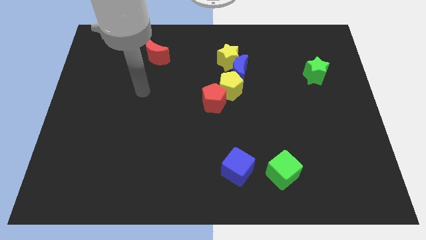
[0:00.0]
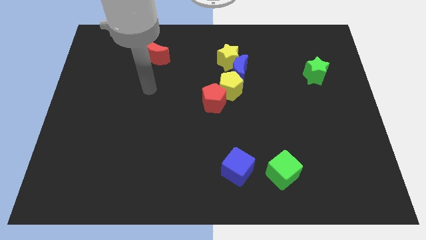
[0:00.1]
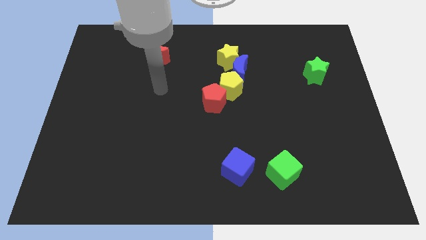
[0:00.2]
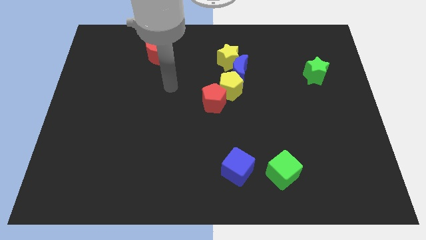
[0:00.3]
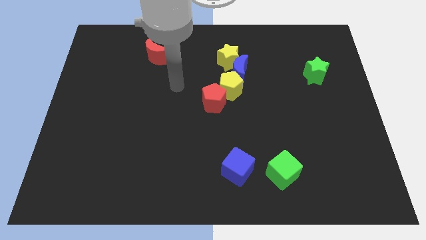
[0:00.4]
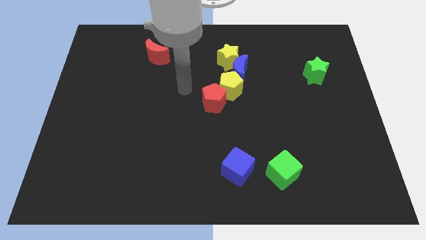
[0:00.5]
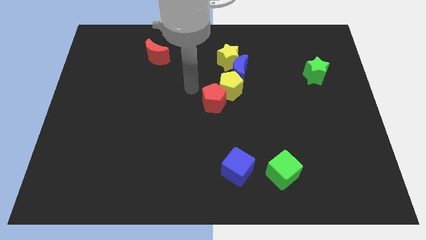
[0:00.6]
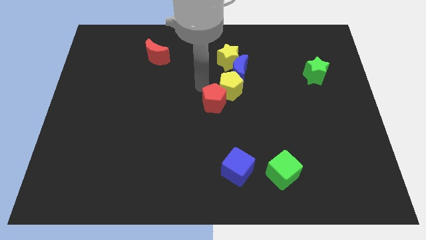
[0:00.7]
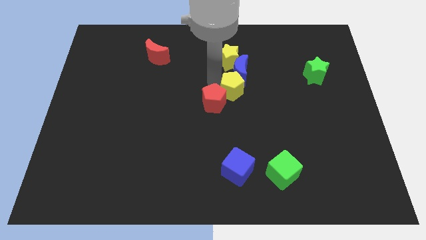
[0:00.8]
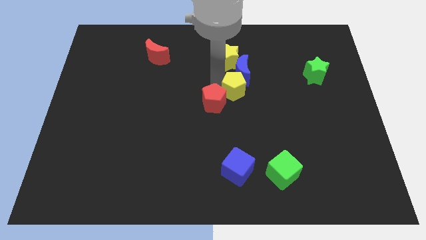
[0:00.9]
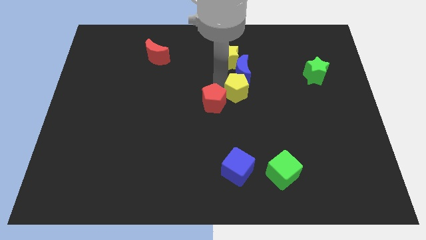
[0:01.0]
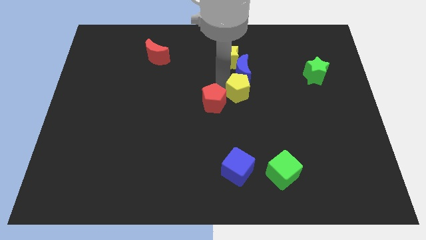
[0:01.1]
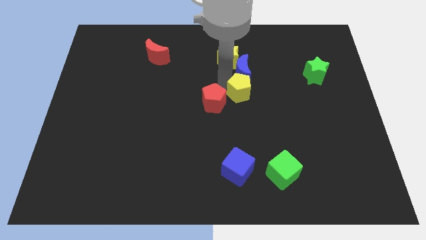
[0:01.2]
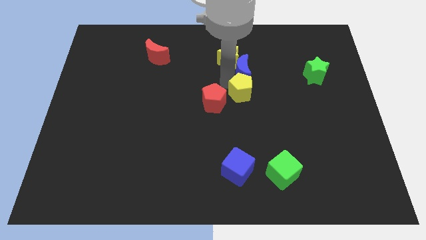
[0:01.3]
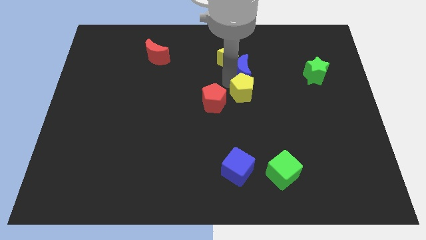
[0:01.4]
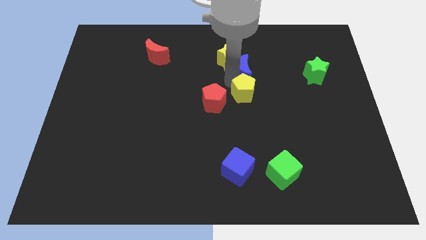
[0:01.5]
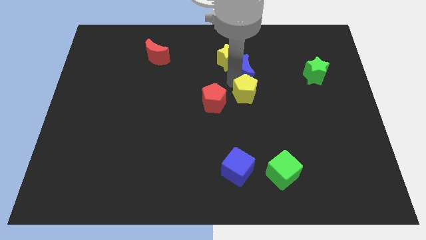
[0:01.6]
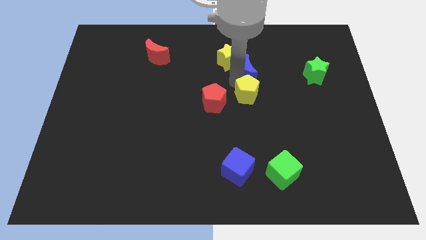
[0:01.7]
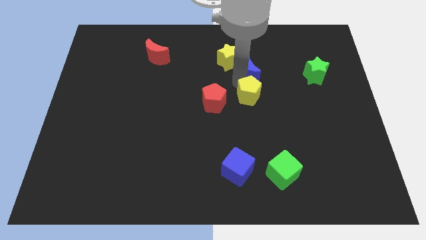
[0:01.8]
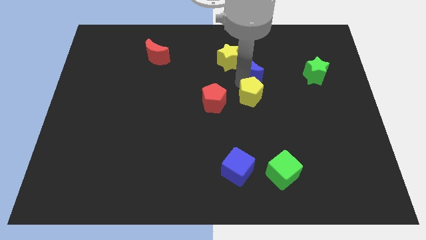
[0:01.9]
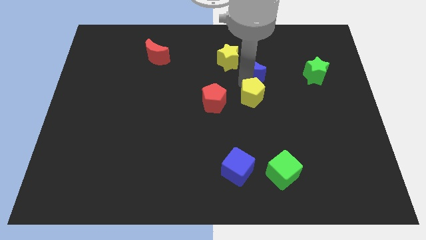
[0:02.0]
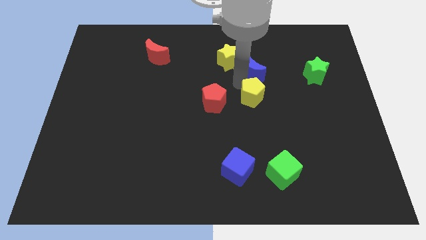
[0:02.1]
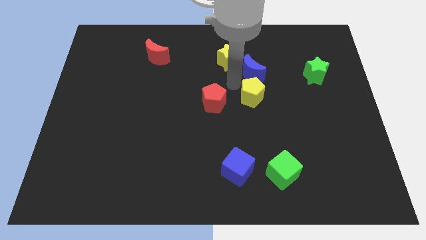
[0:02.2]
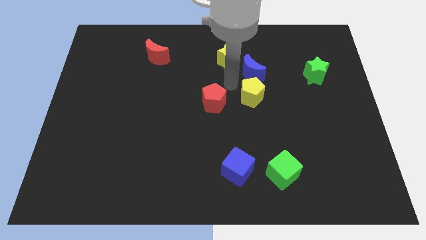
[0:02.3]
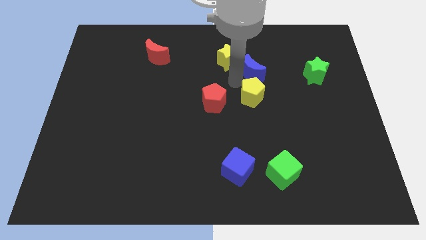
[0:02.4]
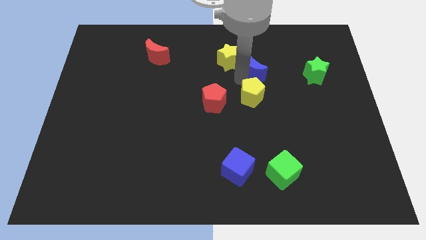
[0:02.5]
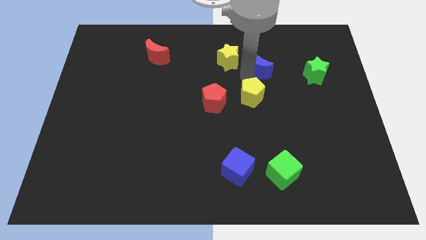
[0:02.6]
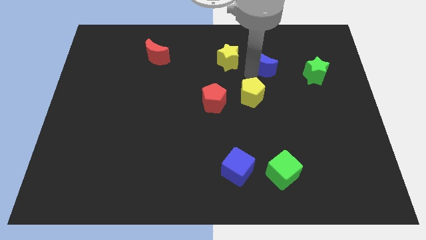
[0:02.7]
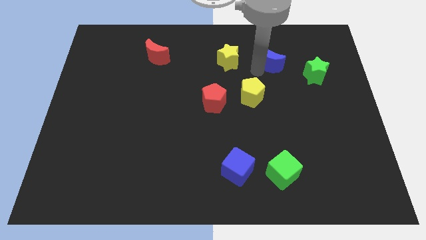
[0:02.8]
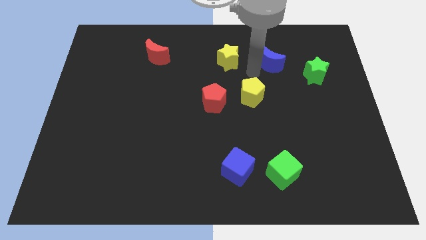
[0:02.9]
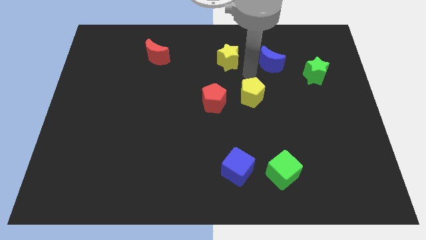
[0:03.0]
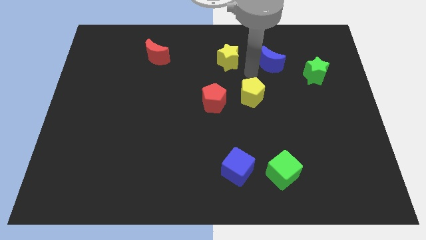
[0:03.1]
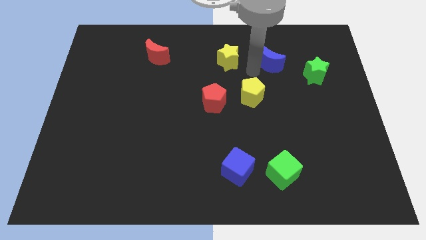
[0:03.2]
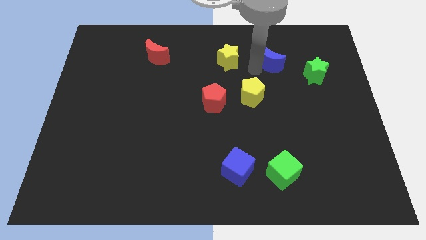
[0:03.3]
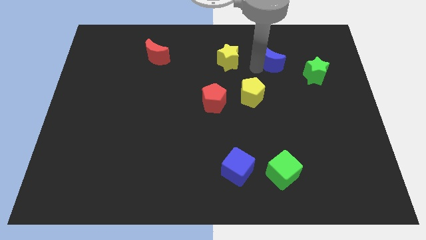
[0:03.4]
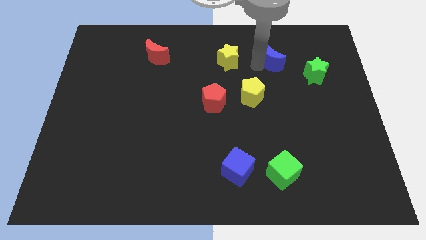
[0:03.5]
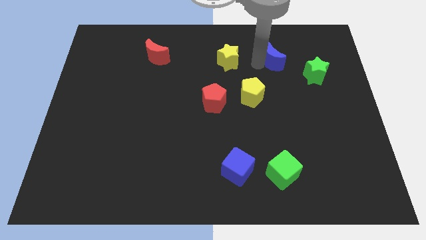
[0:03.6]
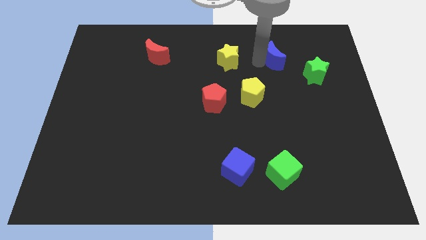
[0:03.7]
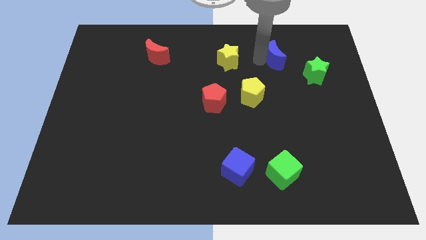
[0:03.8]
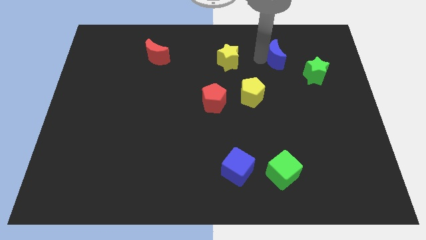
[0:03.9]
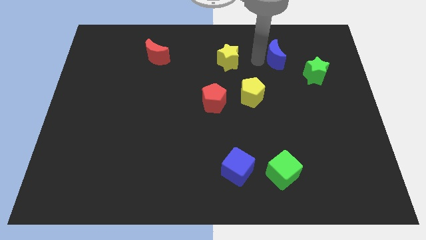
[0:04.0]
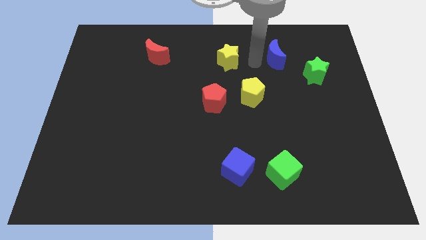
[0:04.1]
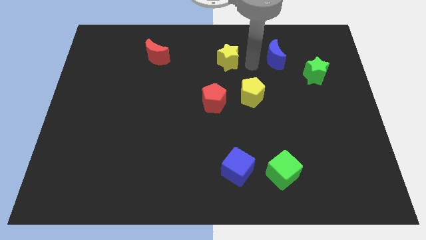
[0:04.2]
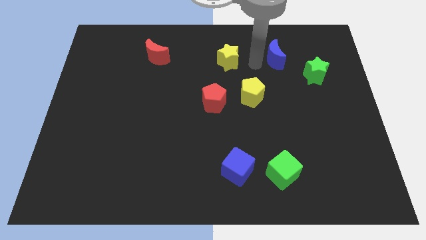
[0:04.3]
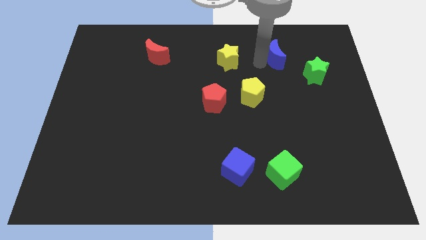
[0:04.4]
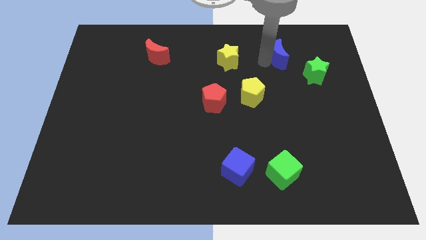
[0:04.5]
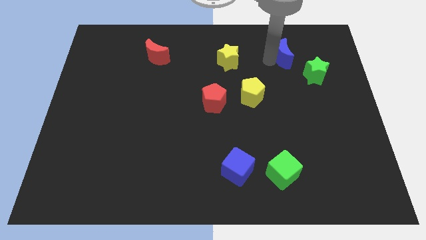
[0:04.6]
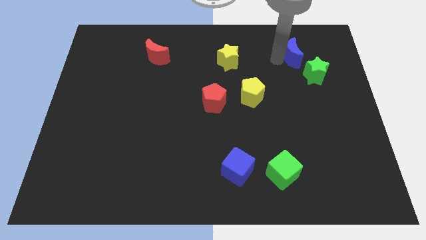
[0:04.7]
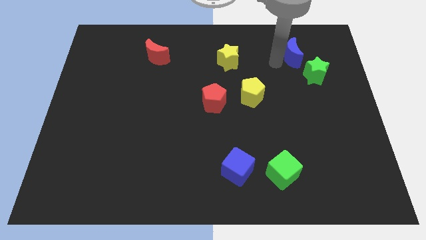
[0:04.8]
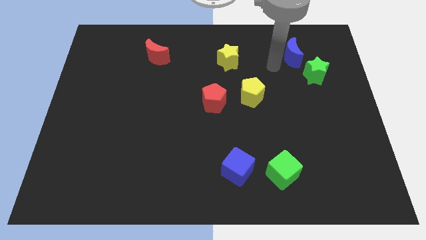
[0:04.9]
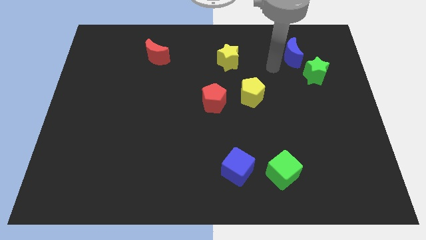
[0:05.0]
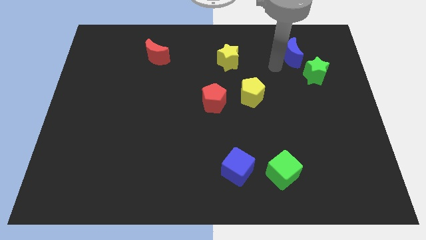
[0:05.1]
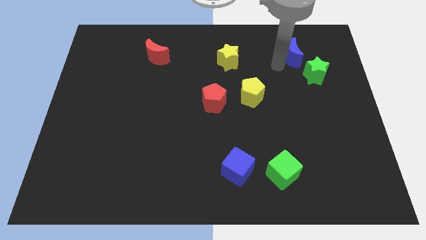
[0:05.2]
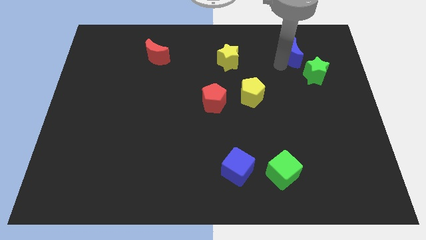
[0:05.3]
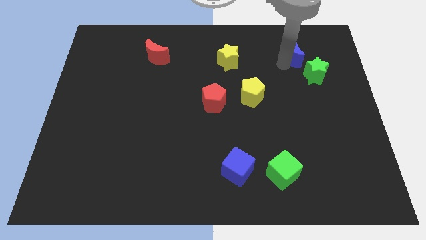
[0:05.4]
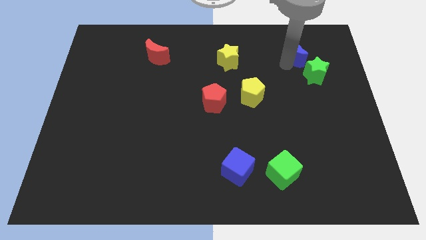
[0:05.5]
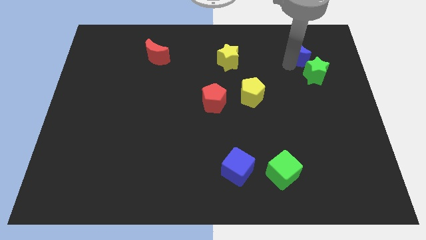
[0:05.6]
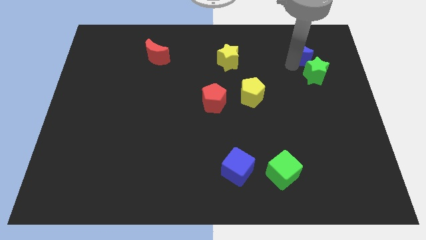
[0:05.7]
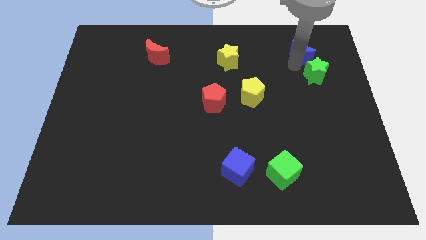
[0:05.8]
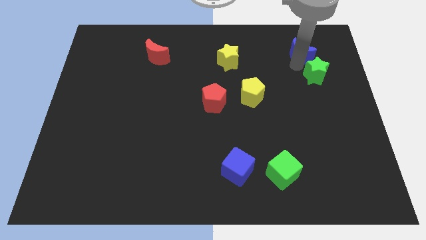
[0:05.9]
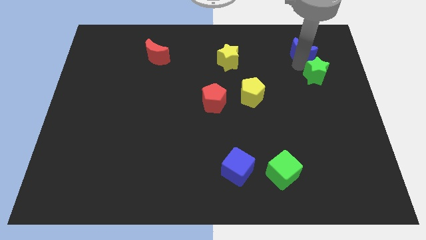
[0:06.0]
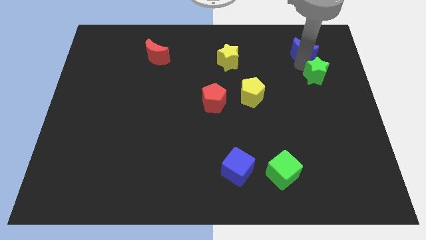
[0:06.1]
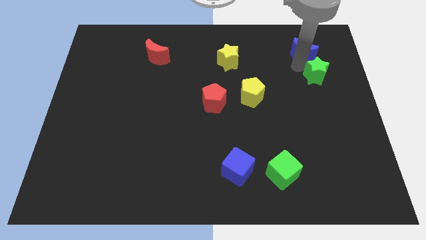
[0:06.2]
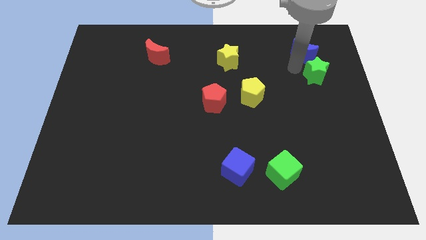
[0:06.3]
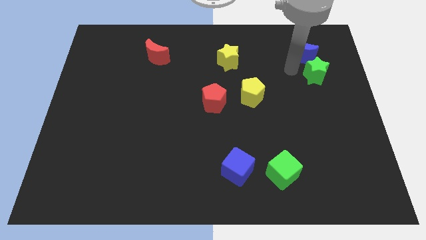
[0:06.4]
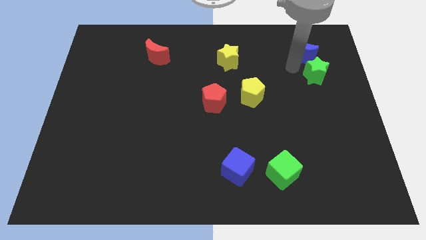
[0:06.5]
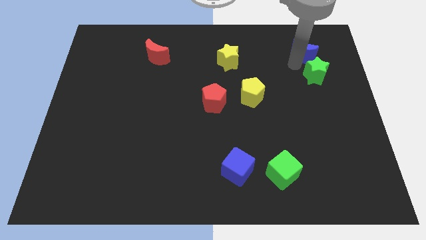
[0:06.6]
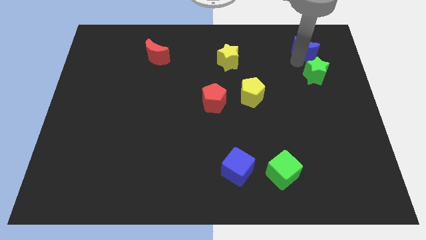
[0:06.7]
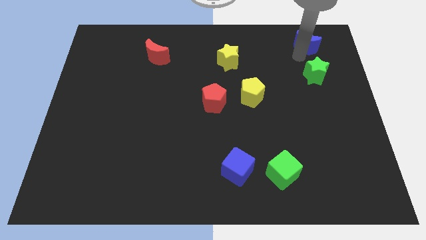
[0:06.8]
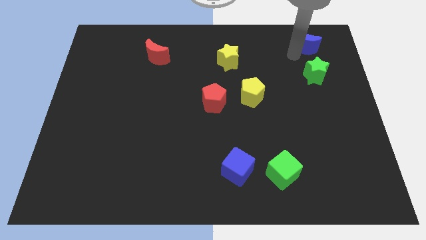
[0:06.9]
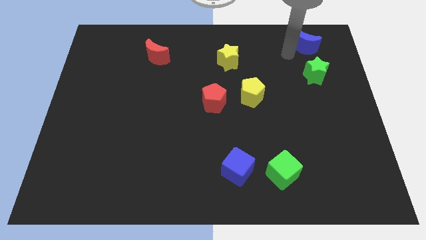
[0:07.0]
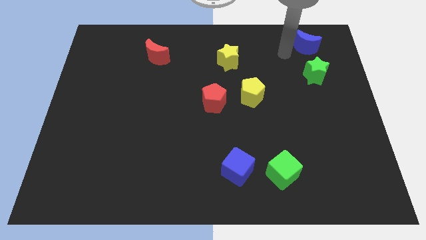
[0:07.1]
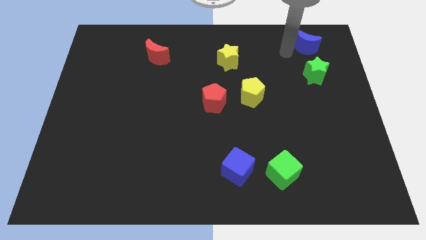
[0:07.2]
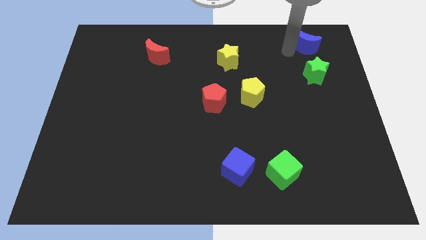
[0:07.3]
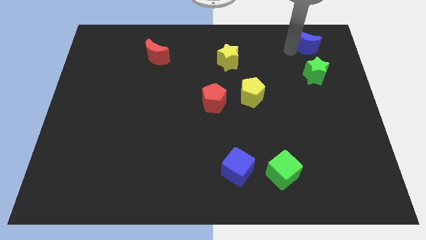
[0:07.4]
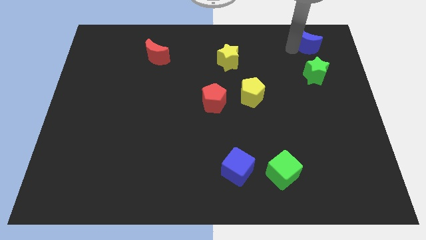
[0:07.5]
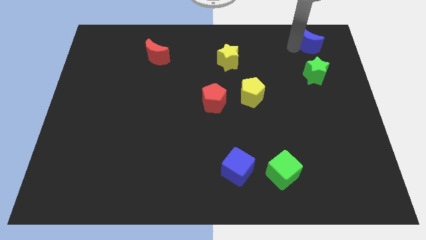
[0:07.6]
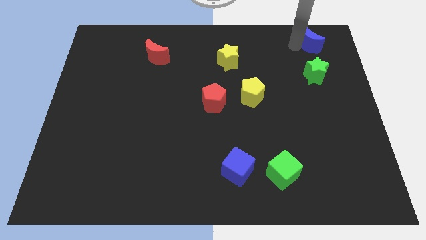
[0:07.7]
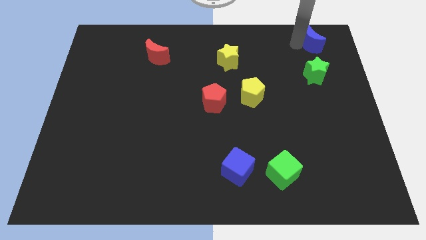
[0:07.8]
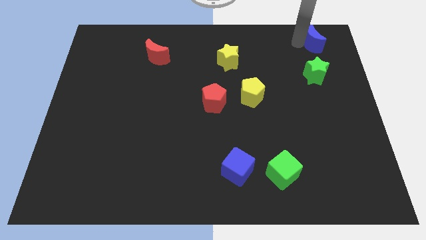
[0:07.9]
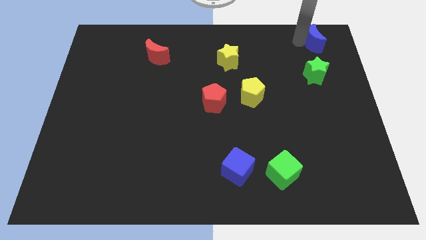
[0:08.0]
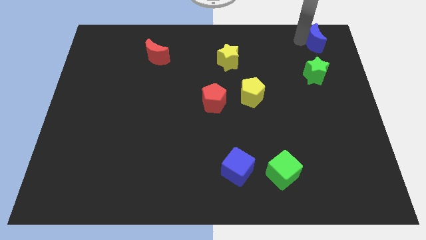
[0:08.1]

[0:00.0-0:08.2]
slide the blue moon to the upper right corner
